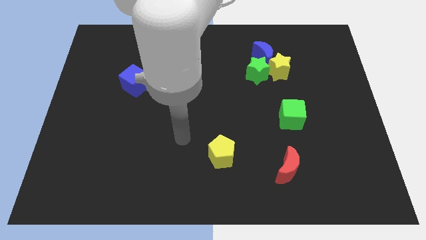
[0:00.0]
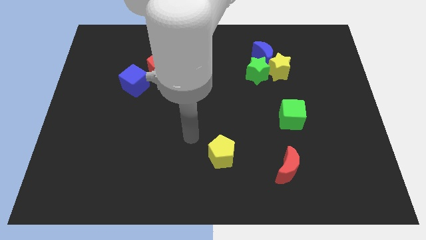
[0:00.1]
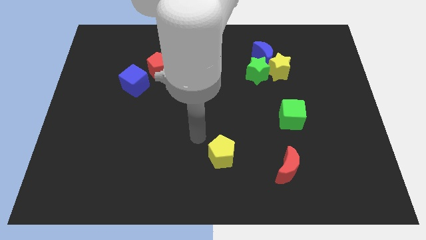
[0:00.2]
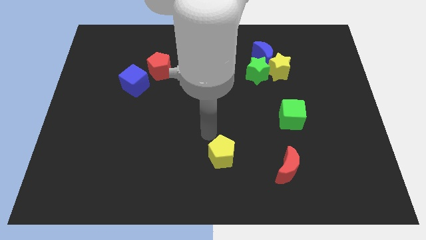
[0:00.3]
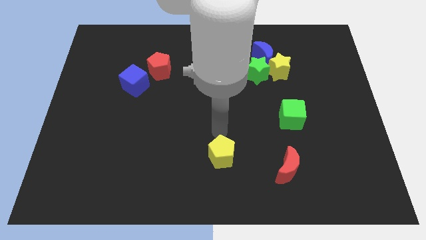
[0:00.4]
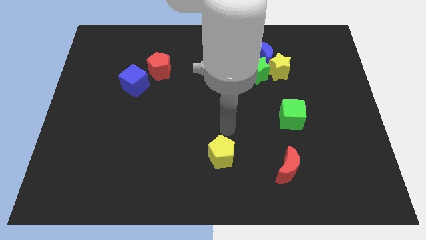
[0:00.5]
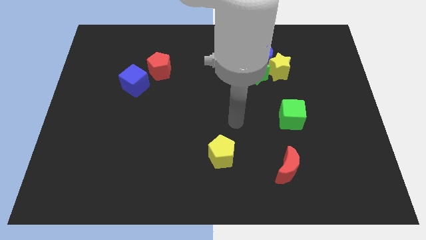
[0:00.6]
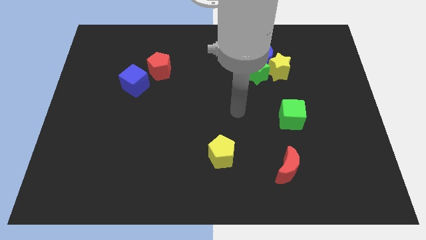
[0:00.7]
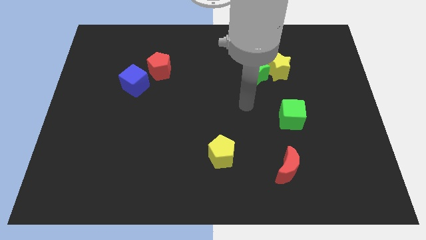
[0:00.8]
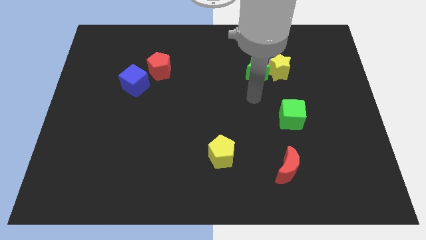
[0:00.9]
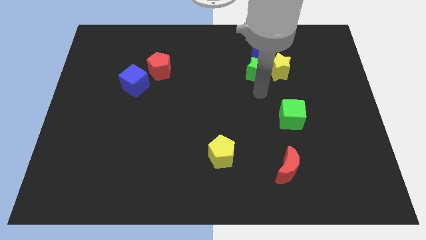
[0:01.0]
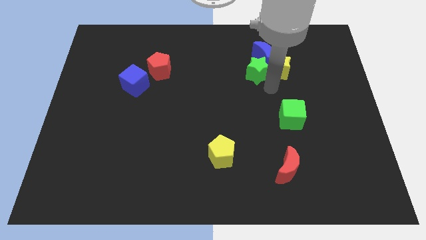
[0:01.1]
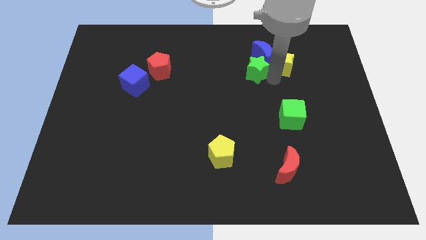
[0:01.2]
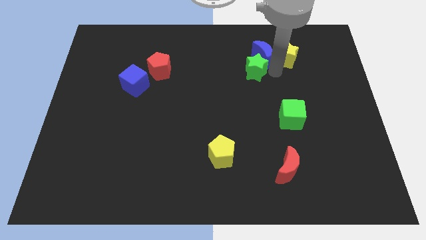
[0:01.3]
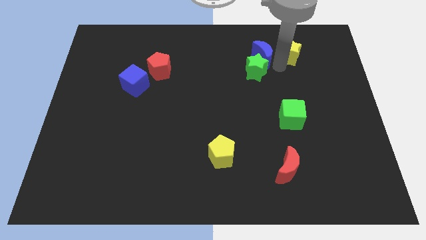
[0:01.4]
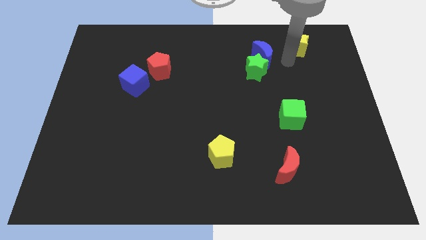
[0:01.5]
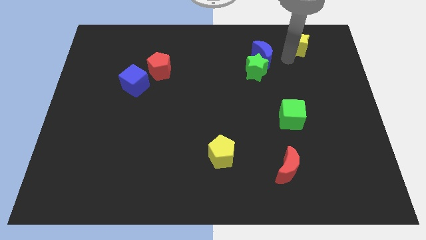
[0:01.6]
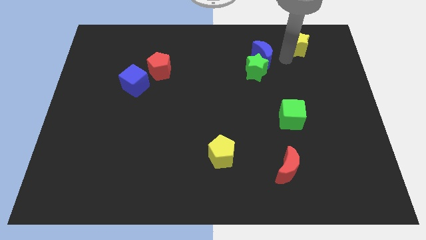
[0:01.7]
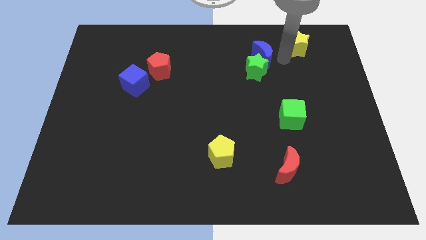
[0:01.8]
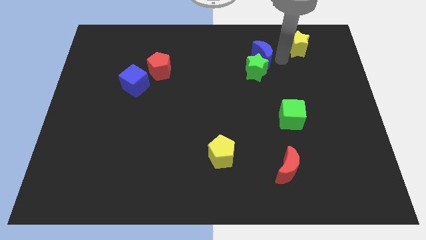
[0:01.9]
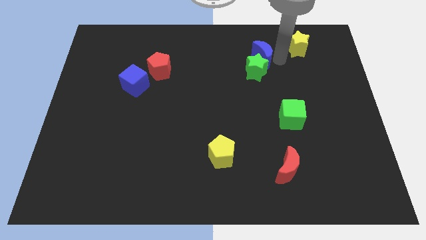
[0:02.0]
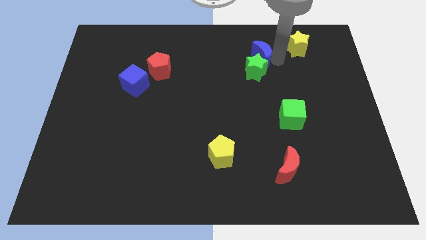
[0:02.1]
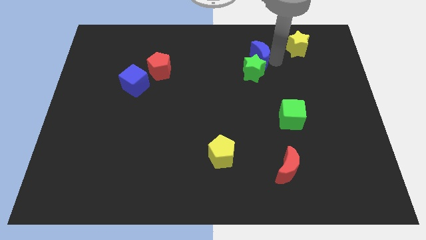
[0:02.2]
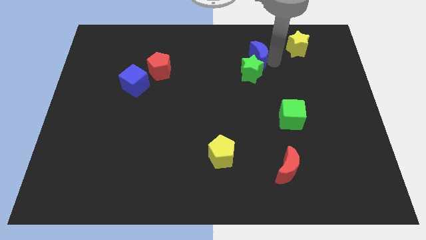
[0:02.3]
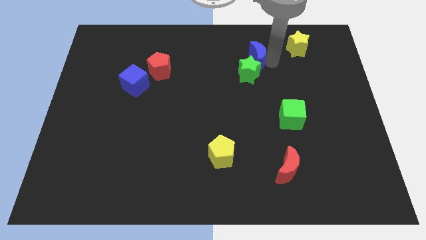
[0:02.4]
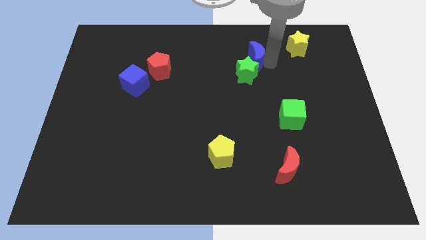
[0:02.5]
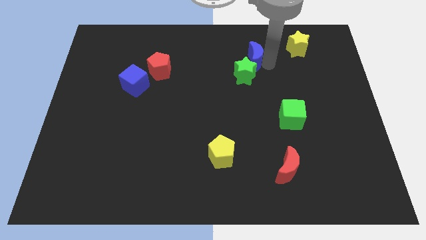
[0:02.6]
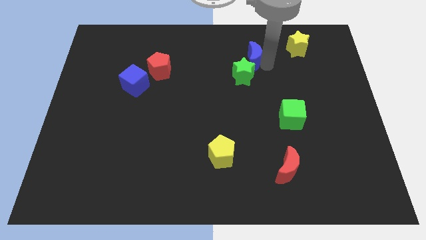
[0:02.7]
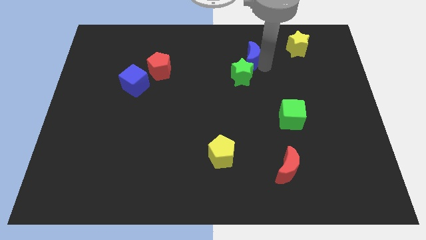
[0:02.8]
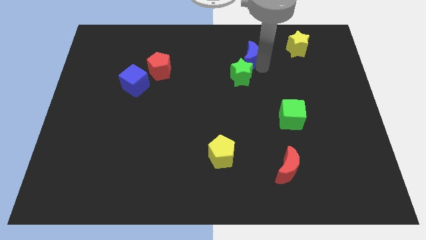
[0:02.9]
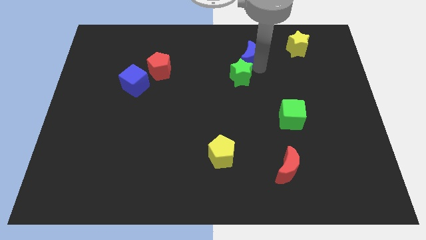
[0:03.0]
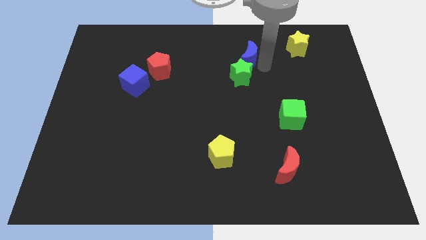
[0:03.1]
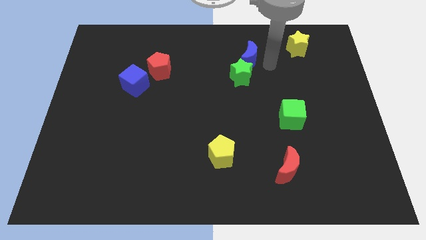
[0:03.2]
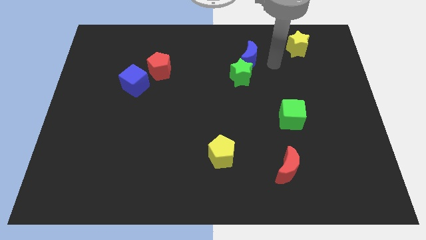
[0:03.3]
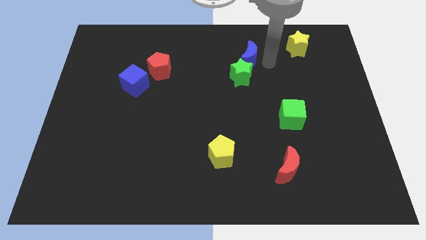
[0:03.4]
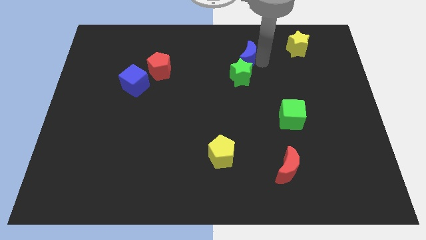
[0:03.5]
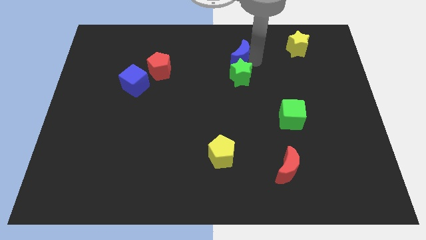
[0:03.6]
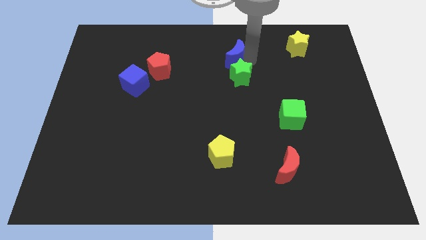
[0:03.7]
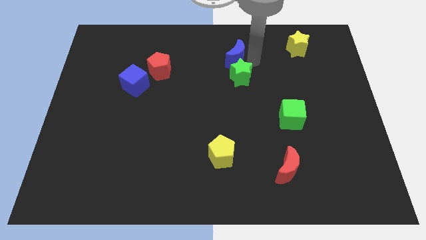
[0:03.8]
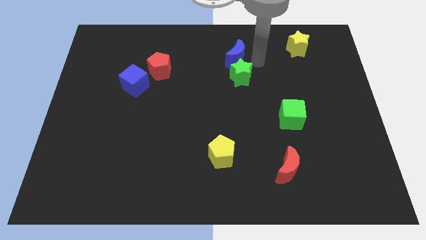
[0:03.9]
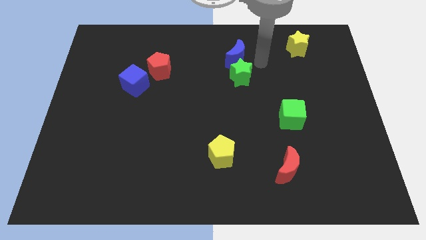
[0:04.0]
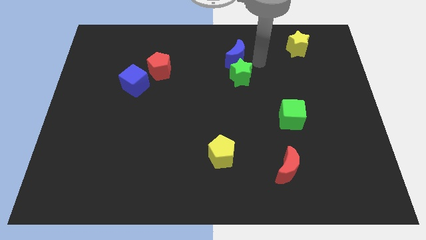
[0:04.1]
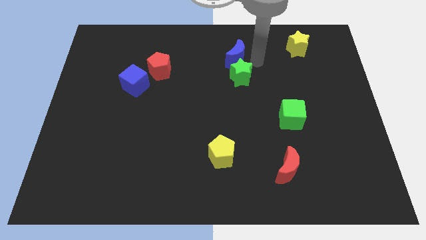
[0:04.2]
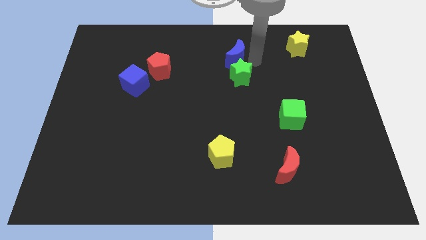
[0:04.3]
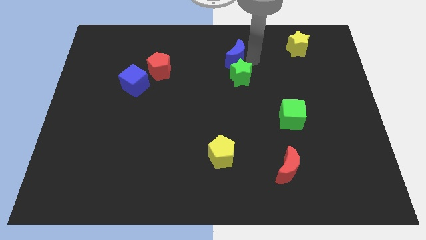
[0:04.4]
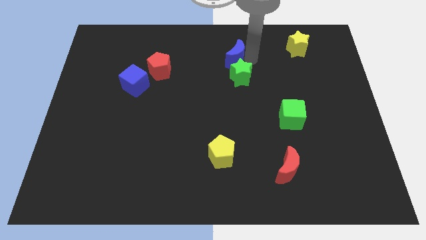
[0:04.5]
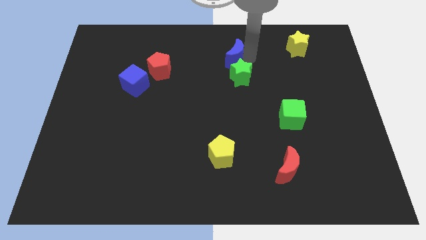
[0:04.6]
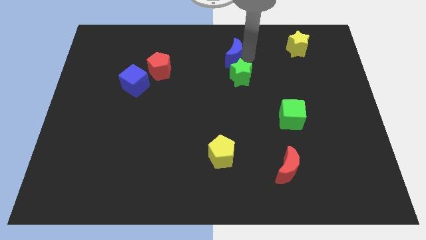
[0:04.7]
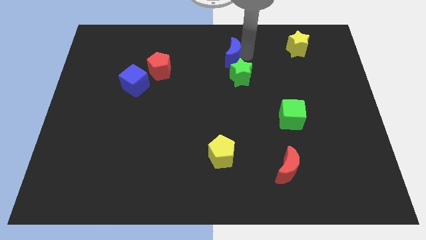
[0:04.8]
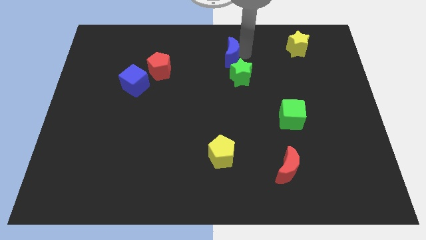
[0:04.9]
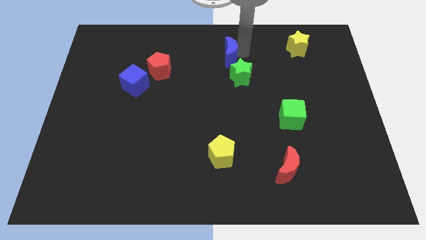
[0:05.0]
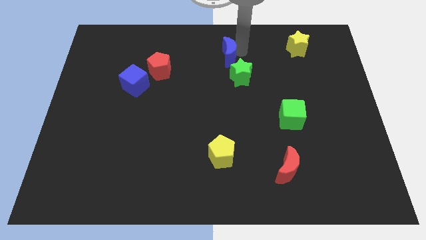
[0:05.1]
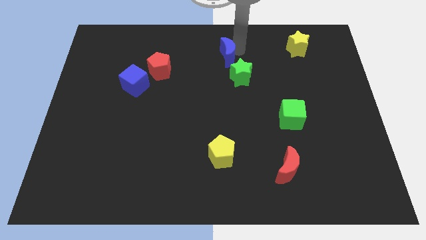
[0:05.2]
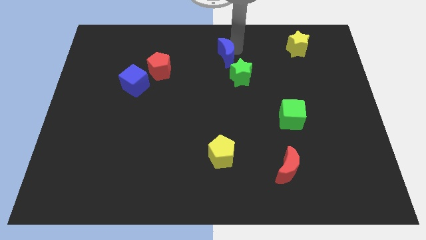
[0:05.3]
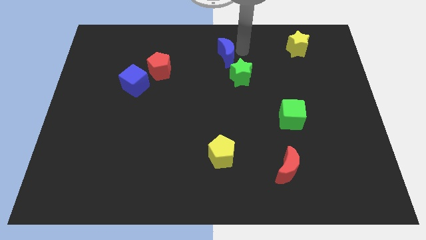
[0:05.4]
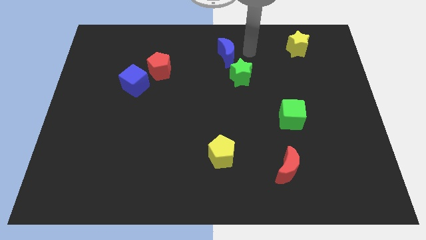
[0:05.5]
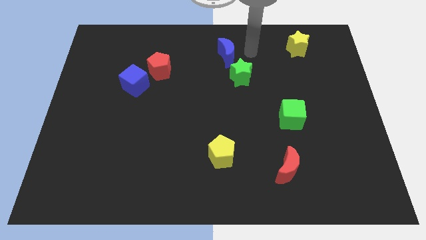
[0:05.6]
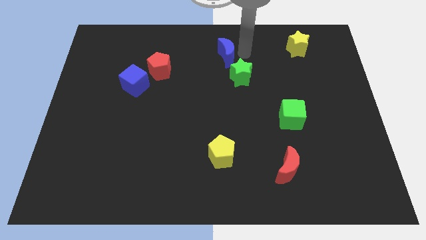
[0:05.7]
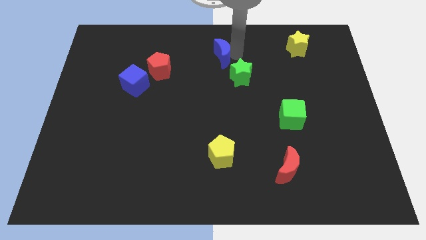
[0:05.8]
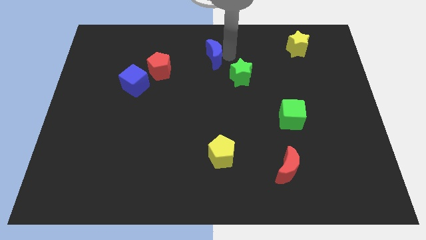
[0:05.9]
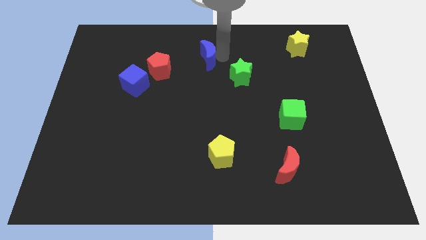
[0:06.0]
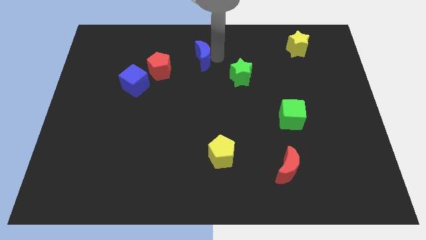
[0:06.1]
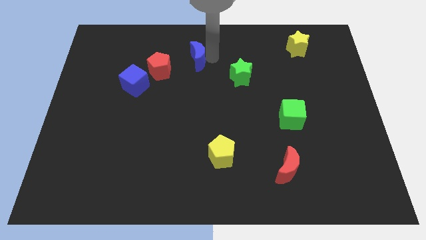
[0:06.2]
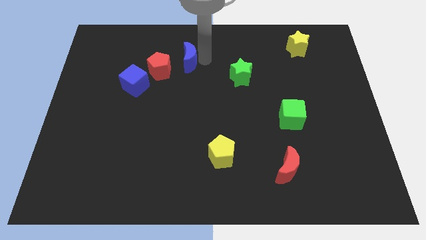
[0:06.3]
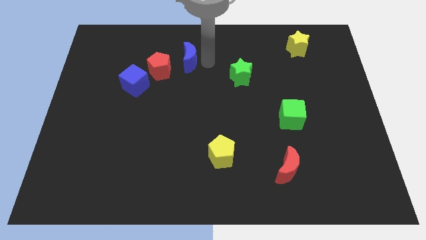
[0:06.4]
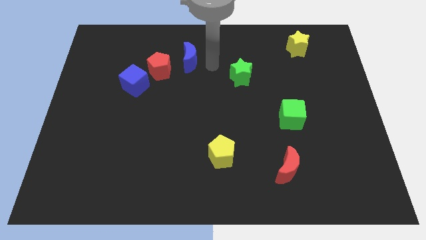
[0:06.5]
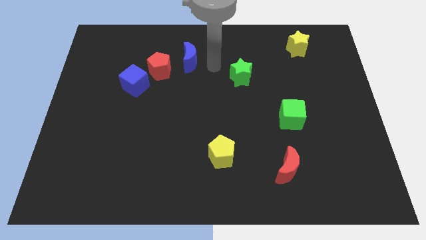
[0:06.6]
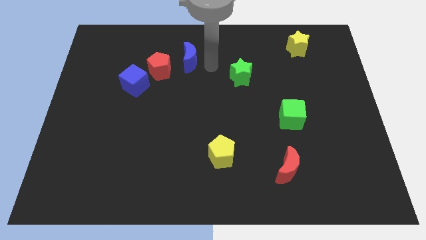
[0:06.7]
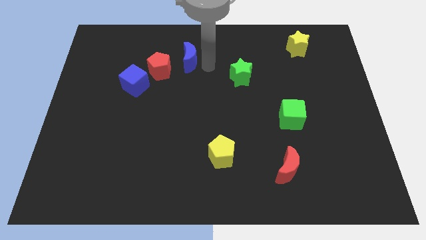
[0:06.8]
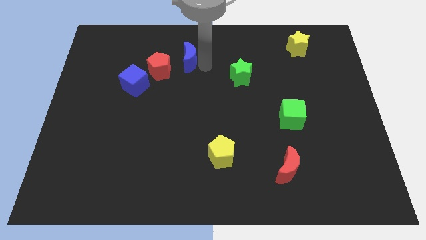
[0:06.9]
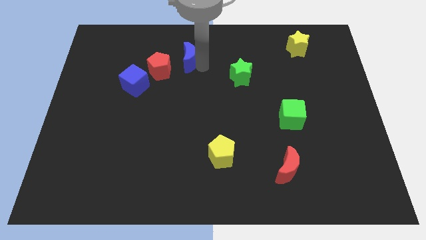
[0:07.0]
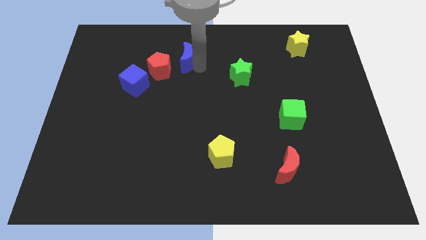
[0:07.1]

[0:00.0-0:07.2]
slide the blue moon to the left

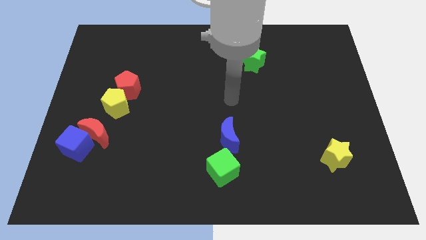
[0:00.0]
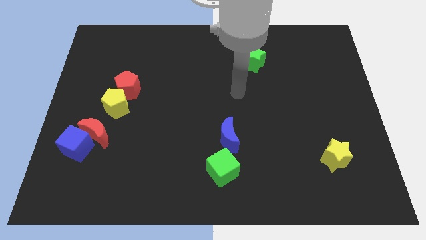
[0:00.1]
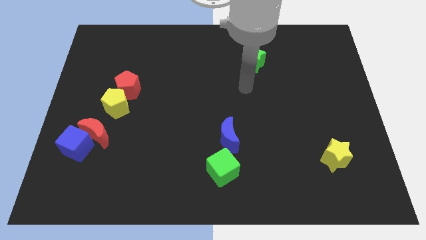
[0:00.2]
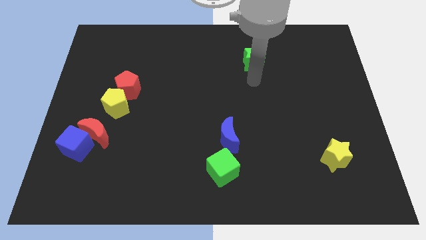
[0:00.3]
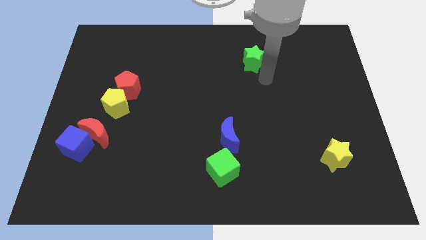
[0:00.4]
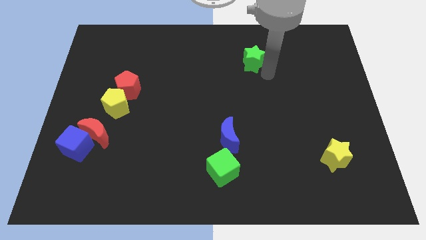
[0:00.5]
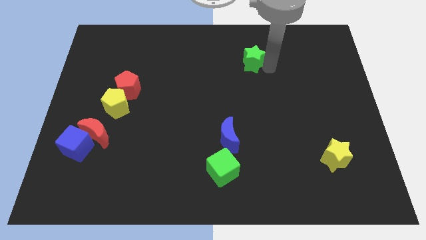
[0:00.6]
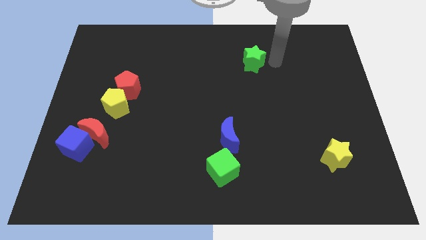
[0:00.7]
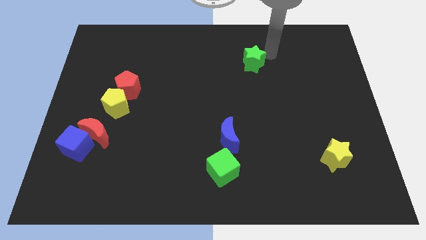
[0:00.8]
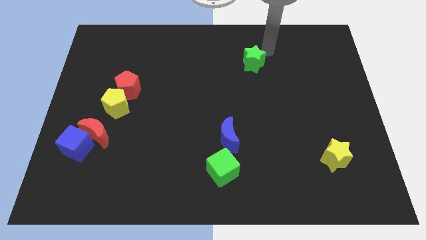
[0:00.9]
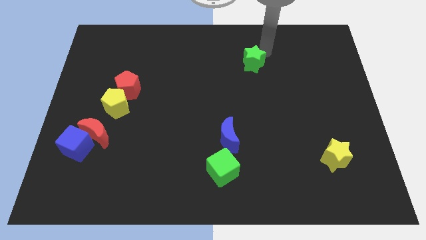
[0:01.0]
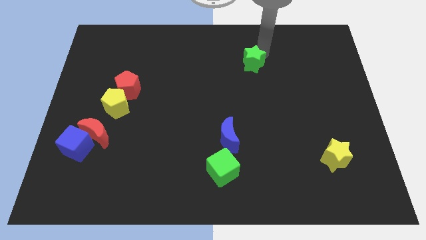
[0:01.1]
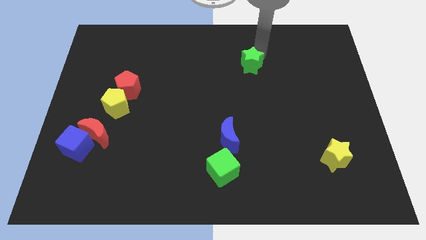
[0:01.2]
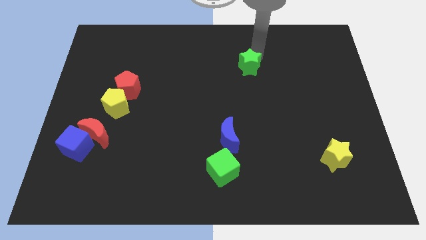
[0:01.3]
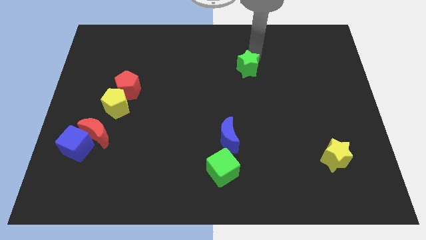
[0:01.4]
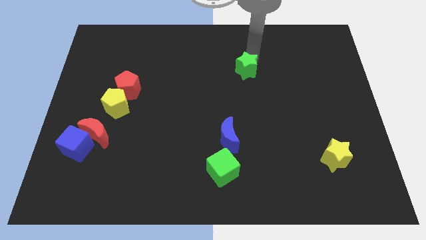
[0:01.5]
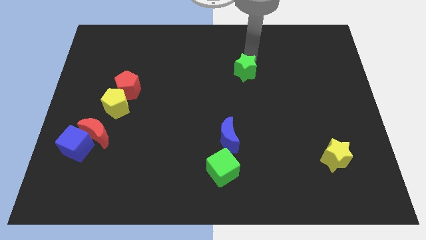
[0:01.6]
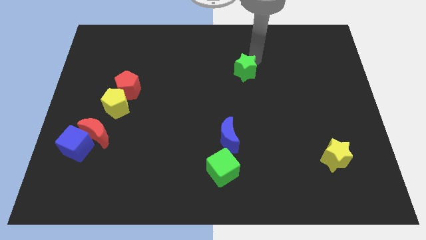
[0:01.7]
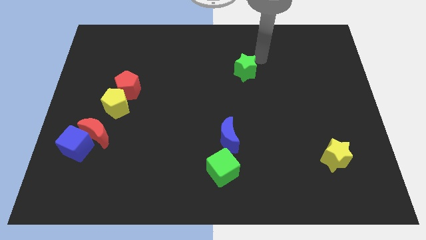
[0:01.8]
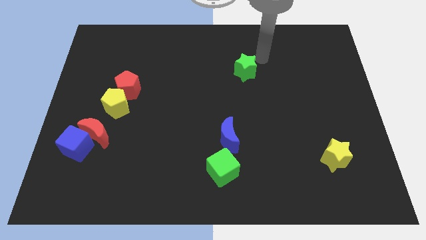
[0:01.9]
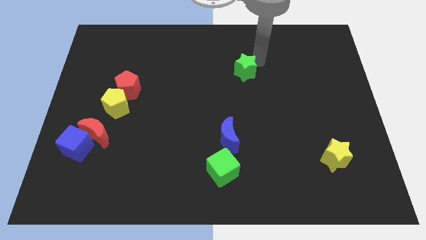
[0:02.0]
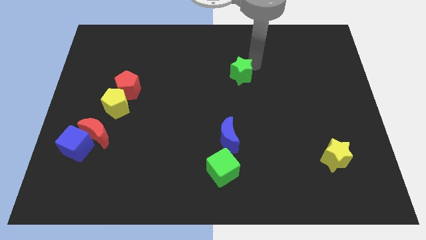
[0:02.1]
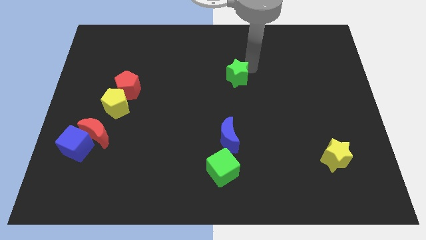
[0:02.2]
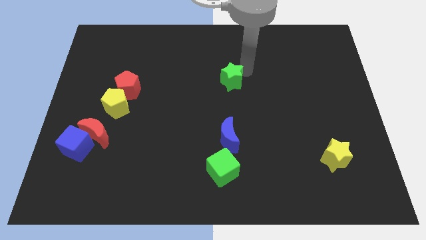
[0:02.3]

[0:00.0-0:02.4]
move the green star down and to the left diagonally a little
